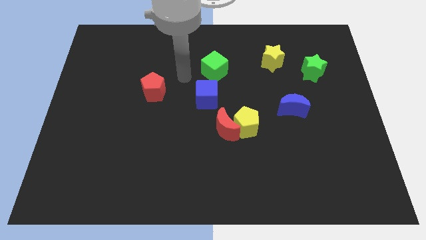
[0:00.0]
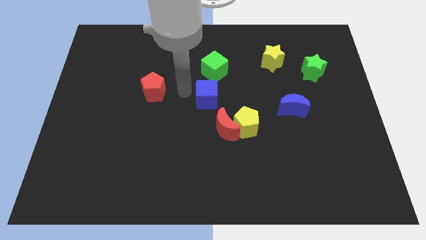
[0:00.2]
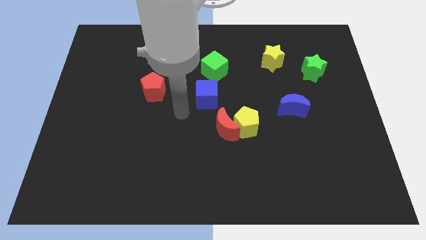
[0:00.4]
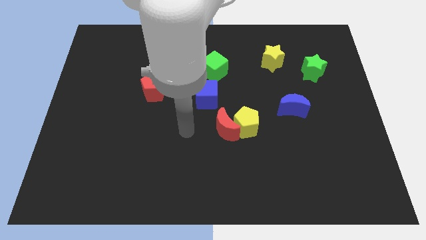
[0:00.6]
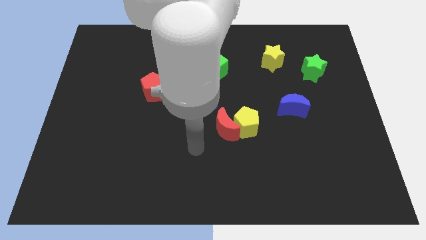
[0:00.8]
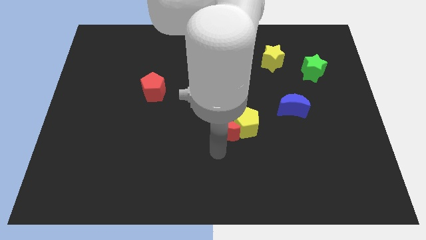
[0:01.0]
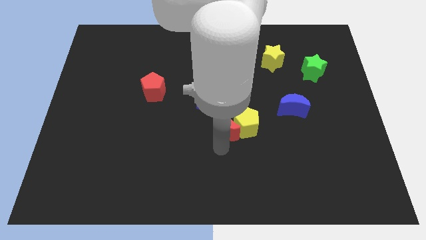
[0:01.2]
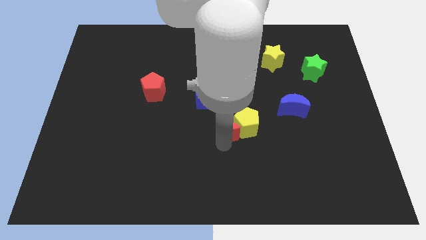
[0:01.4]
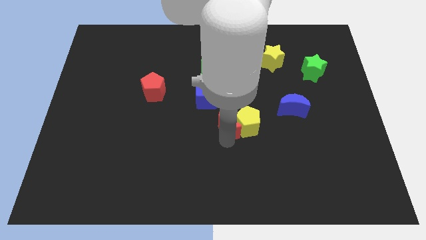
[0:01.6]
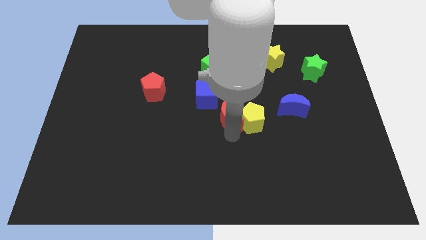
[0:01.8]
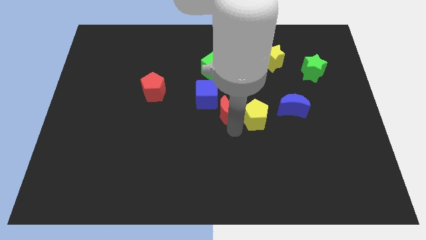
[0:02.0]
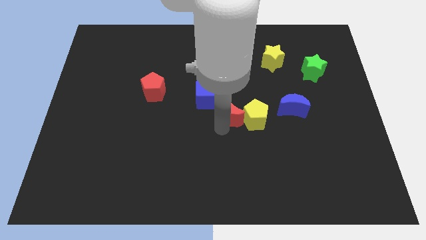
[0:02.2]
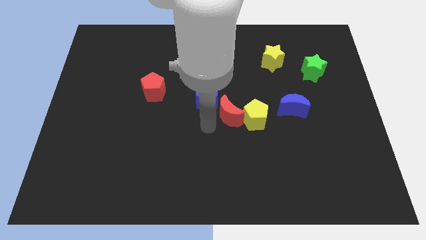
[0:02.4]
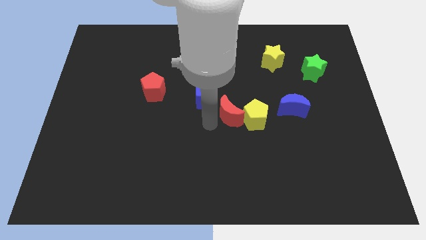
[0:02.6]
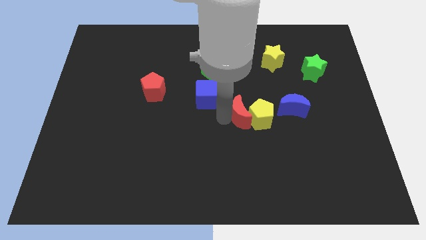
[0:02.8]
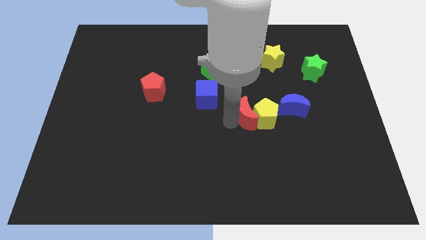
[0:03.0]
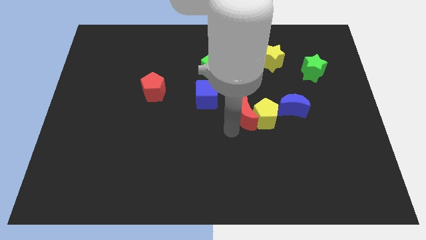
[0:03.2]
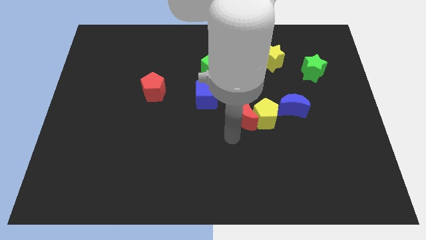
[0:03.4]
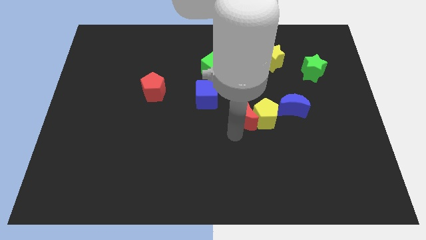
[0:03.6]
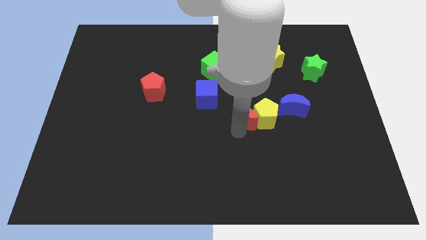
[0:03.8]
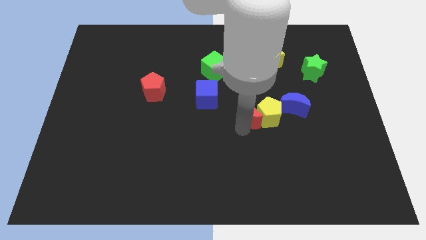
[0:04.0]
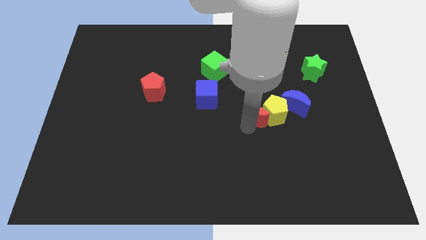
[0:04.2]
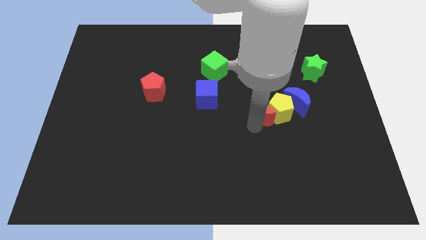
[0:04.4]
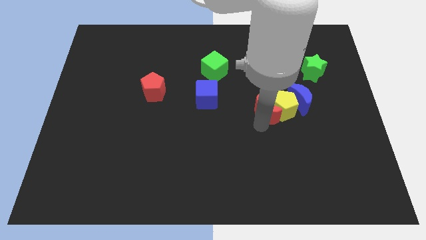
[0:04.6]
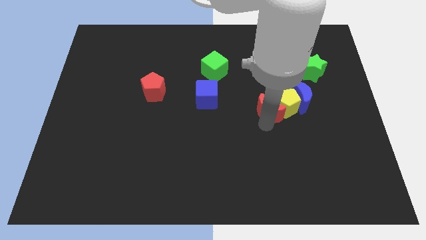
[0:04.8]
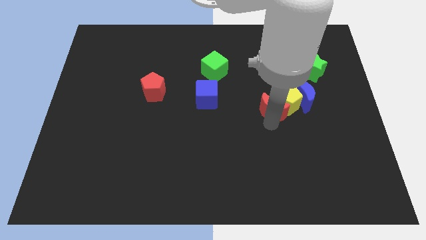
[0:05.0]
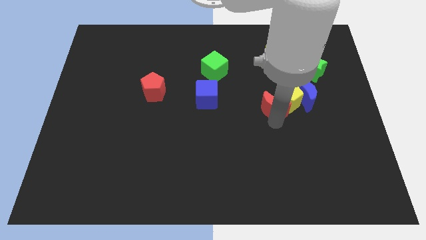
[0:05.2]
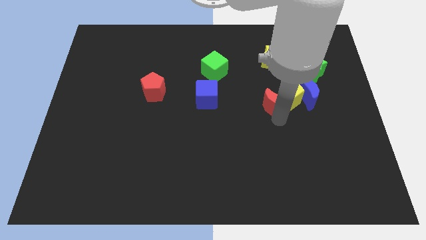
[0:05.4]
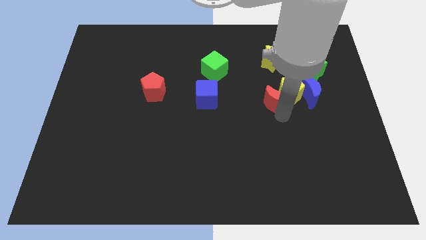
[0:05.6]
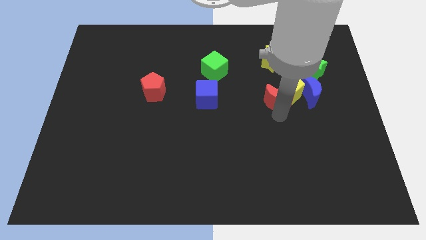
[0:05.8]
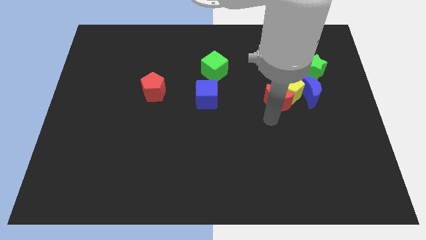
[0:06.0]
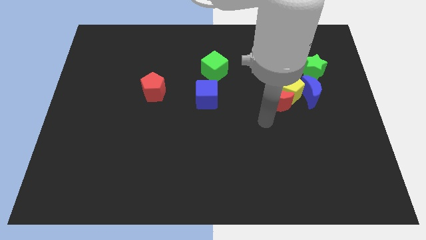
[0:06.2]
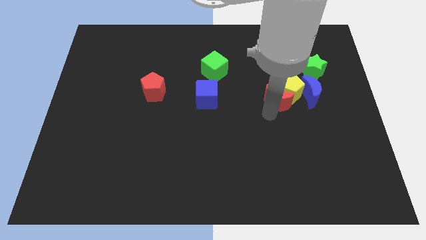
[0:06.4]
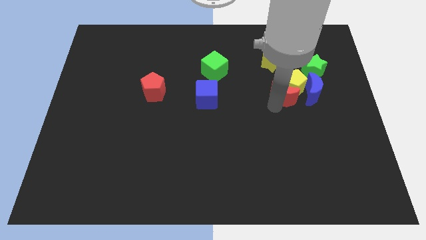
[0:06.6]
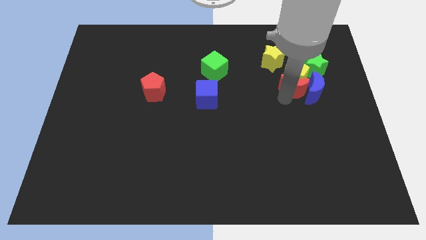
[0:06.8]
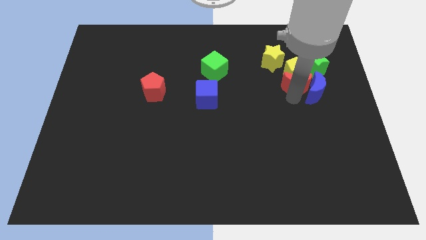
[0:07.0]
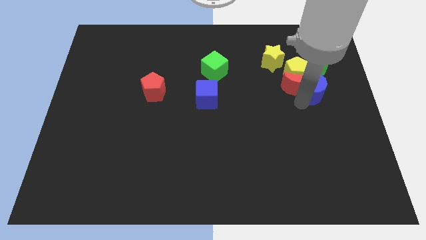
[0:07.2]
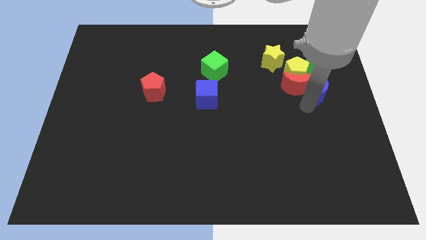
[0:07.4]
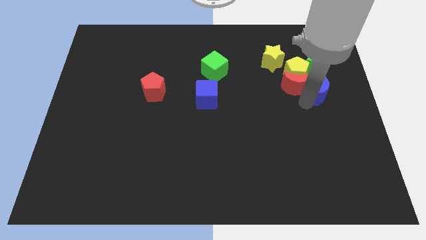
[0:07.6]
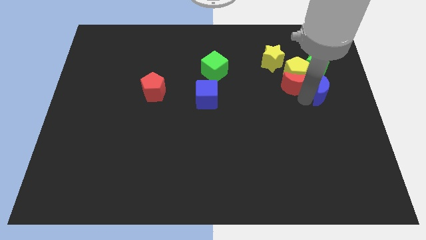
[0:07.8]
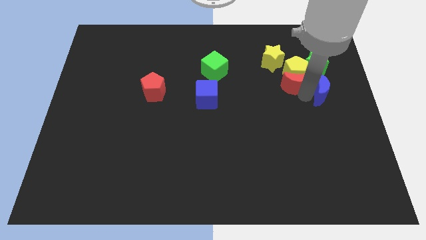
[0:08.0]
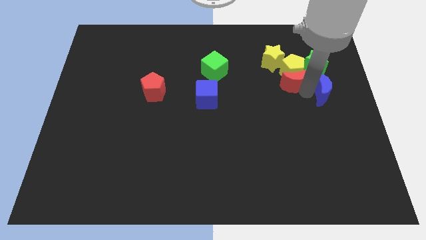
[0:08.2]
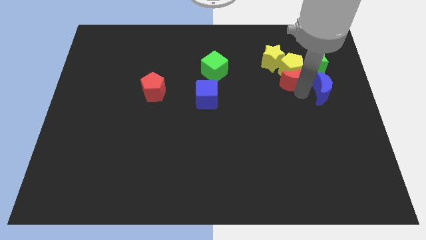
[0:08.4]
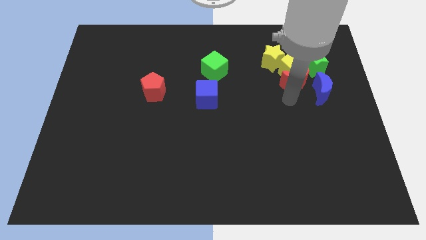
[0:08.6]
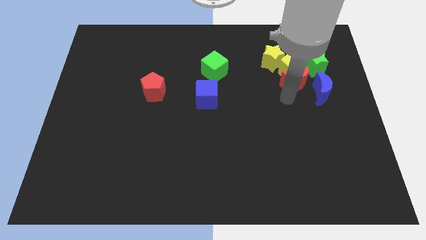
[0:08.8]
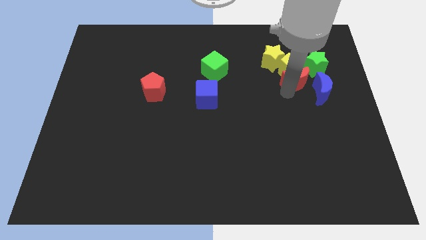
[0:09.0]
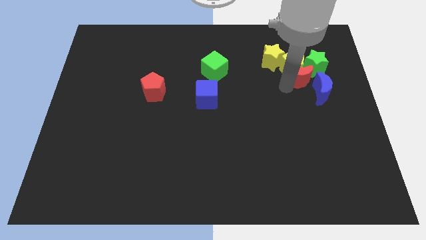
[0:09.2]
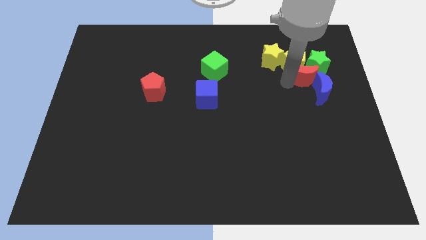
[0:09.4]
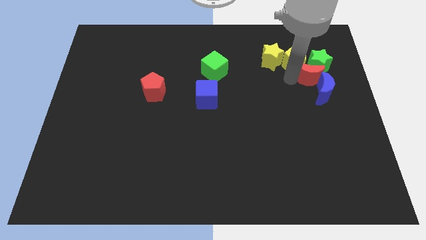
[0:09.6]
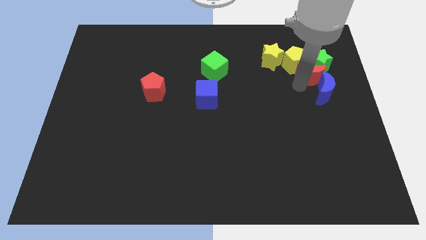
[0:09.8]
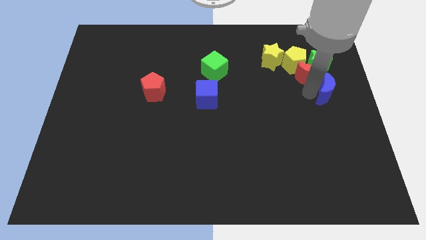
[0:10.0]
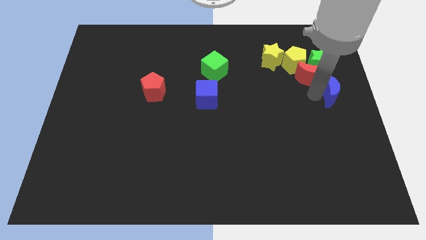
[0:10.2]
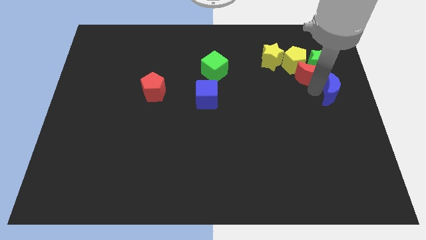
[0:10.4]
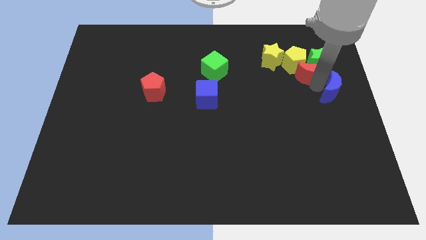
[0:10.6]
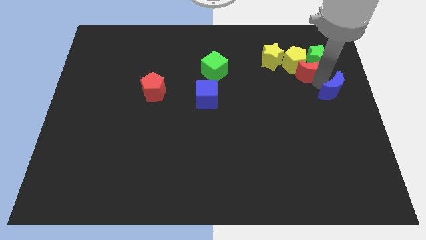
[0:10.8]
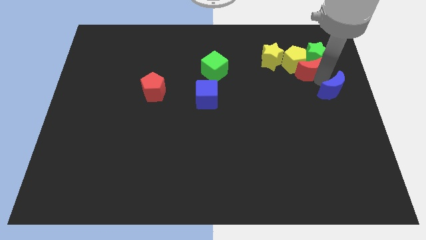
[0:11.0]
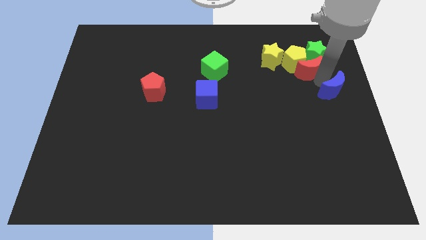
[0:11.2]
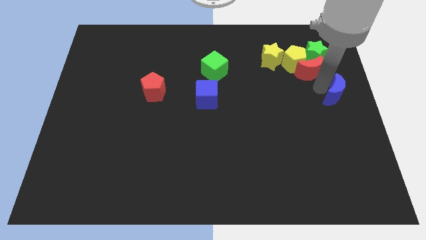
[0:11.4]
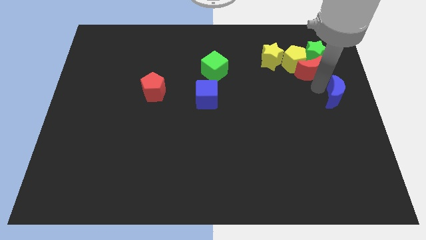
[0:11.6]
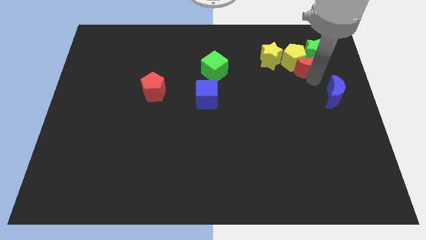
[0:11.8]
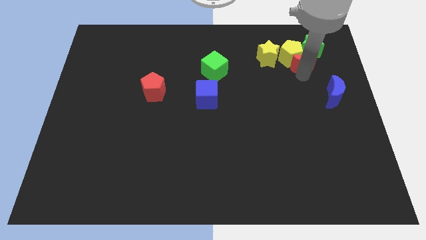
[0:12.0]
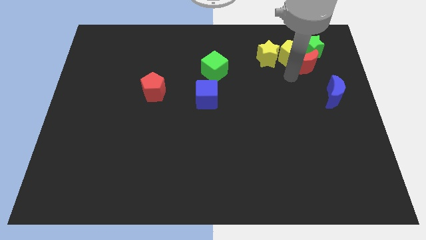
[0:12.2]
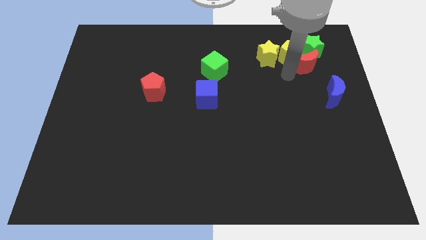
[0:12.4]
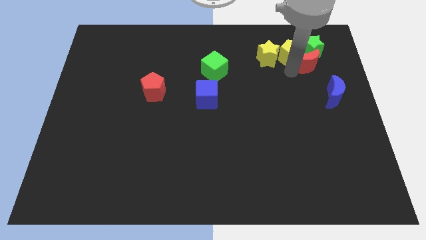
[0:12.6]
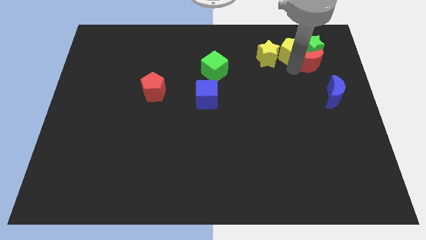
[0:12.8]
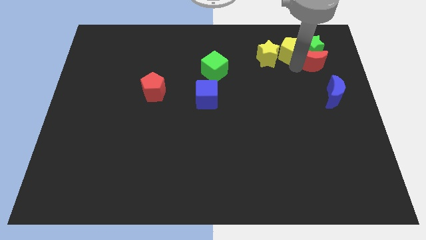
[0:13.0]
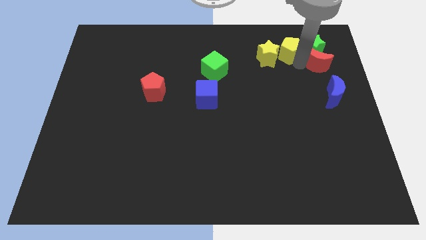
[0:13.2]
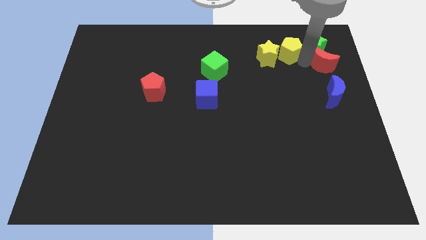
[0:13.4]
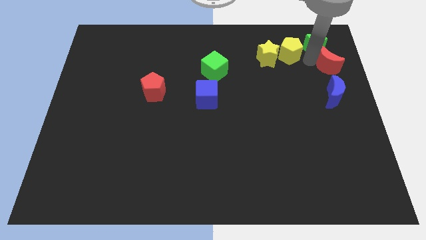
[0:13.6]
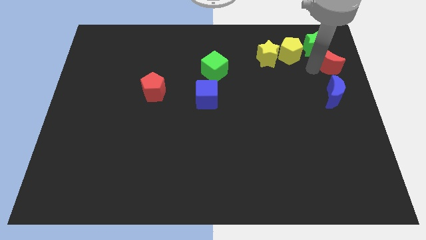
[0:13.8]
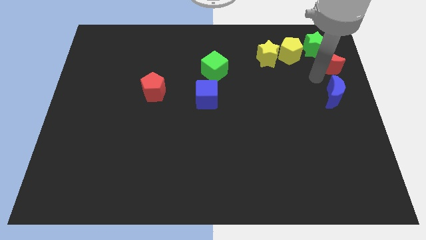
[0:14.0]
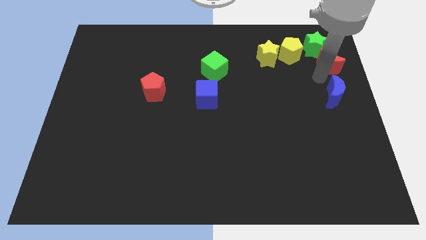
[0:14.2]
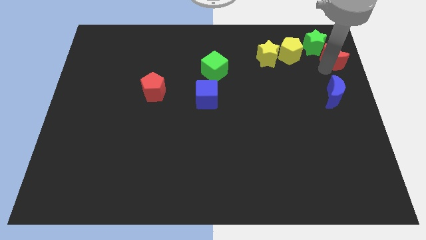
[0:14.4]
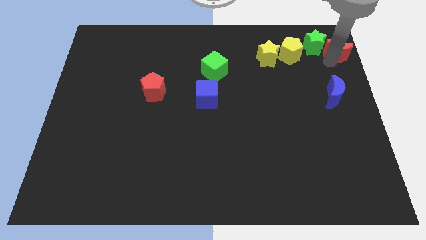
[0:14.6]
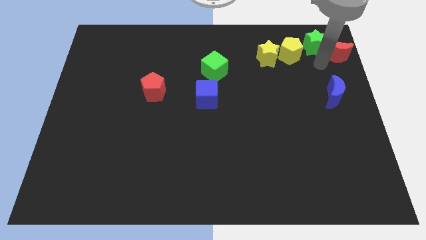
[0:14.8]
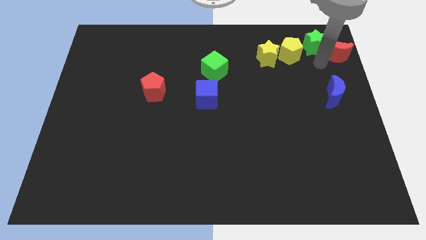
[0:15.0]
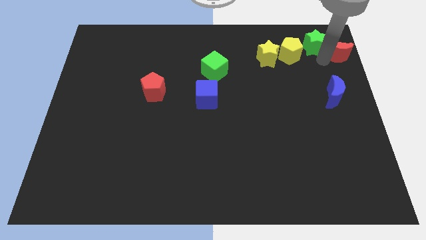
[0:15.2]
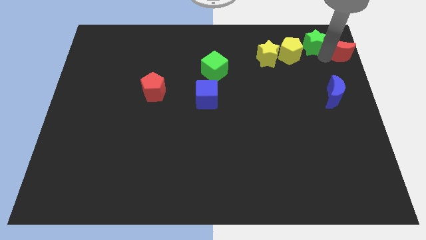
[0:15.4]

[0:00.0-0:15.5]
put the red moon to the top right corner
